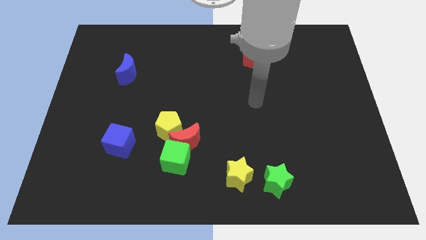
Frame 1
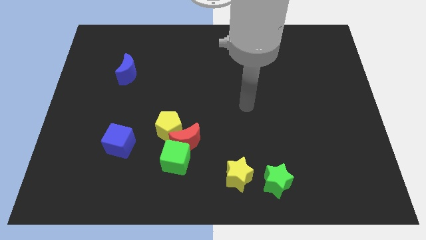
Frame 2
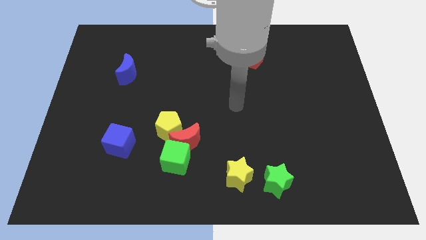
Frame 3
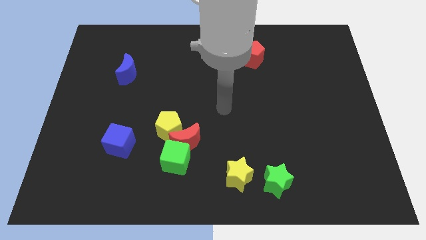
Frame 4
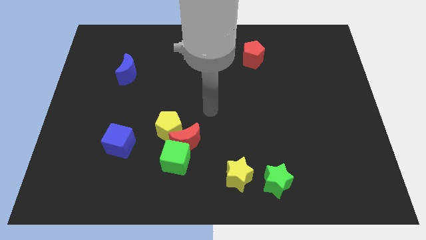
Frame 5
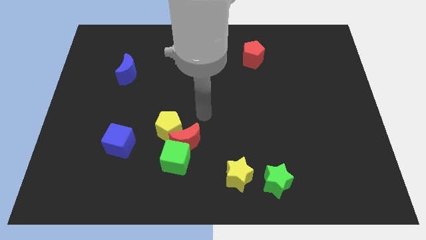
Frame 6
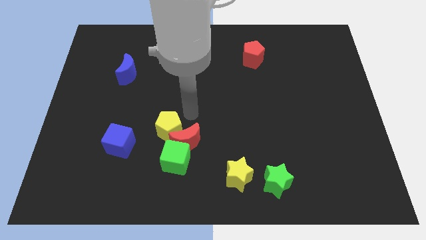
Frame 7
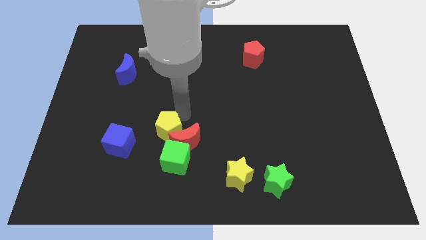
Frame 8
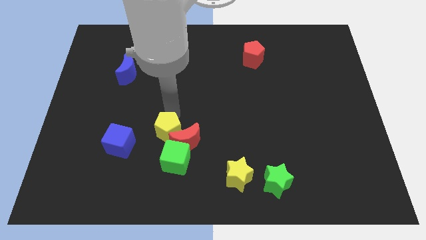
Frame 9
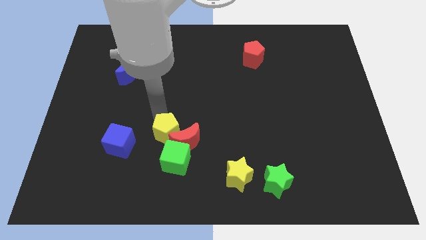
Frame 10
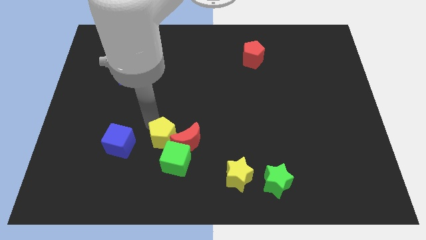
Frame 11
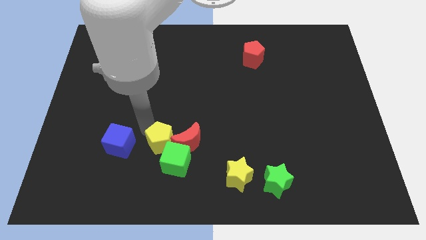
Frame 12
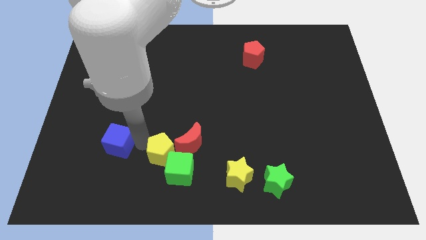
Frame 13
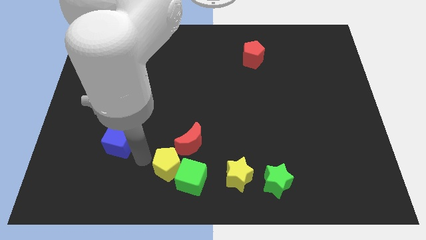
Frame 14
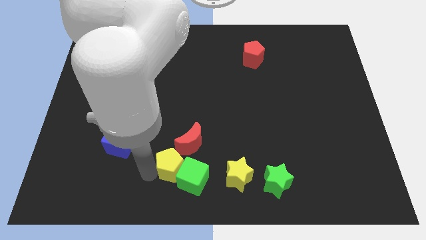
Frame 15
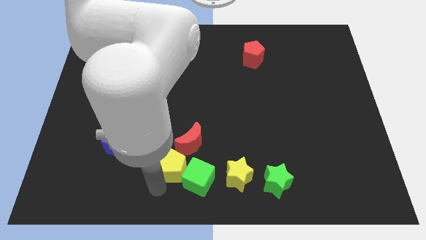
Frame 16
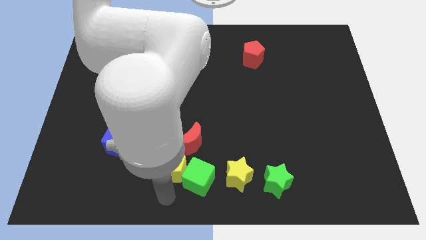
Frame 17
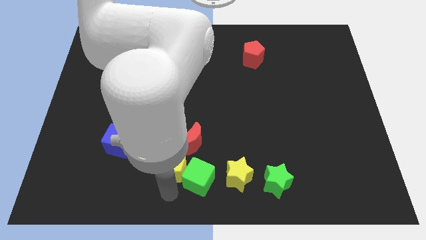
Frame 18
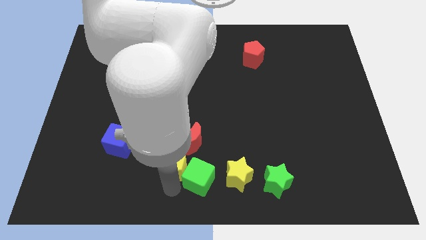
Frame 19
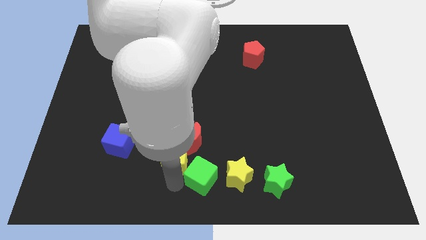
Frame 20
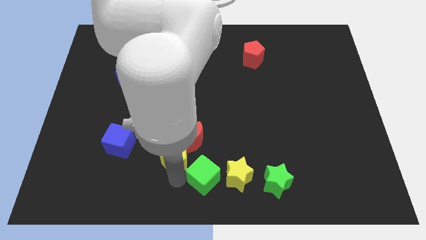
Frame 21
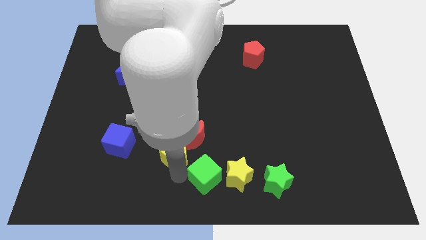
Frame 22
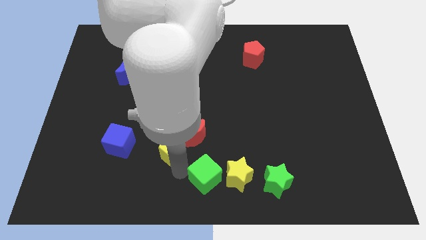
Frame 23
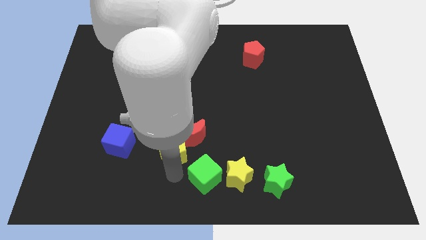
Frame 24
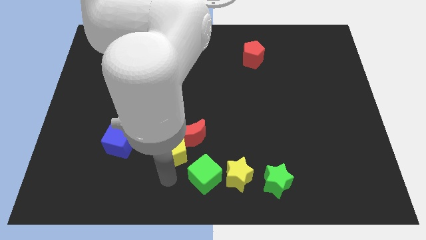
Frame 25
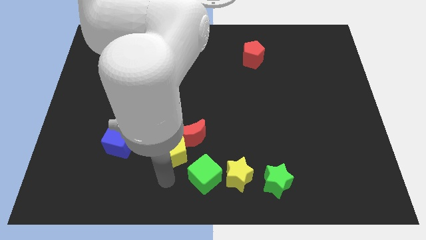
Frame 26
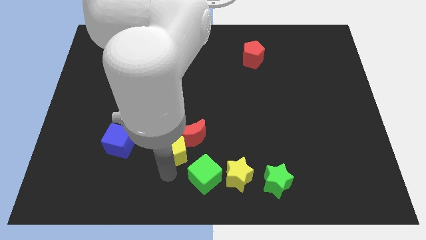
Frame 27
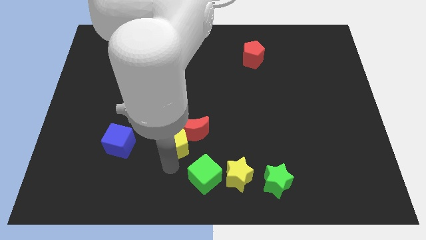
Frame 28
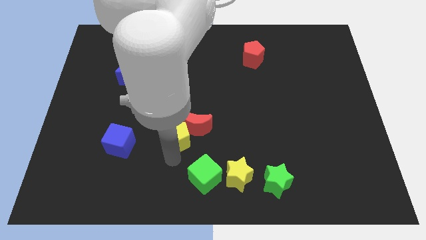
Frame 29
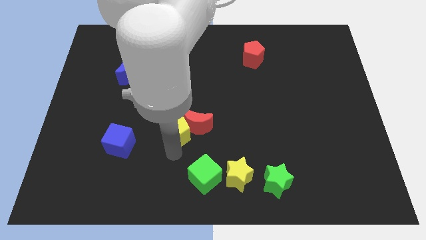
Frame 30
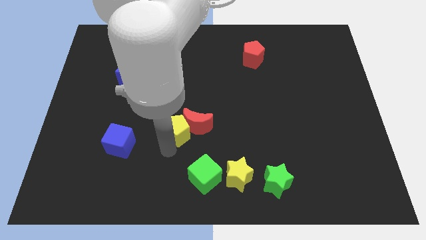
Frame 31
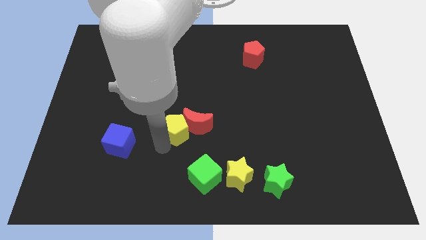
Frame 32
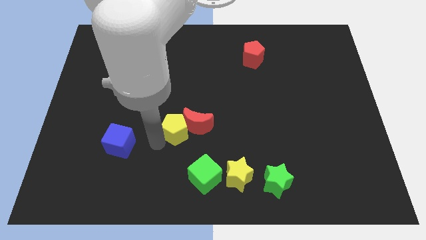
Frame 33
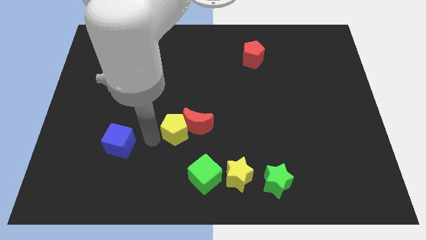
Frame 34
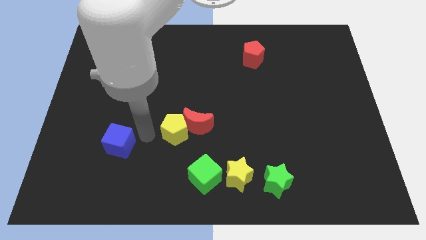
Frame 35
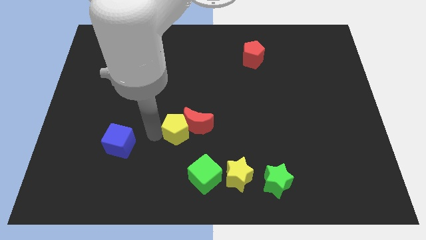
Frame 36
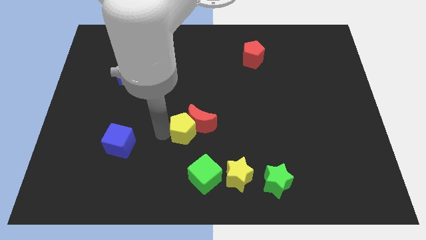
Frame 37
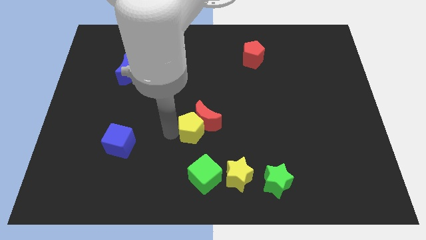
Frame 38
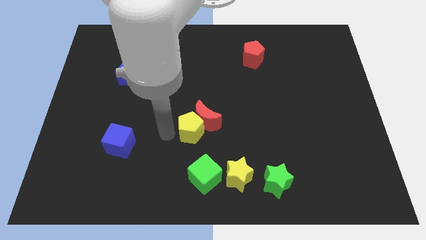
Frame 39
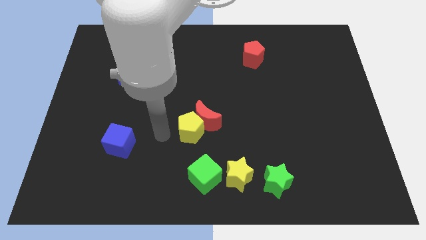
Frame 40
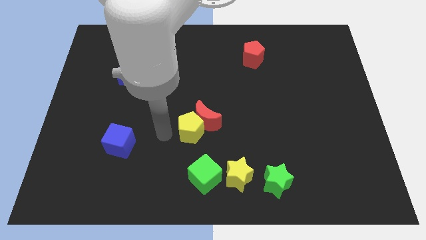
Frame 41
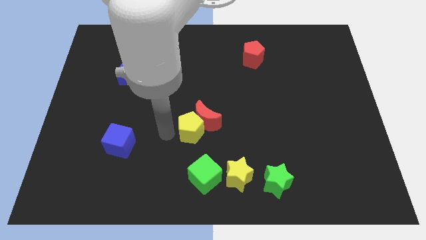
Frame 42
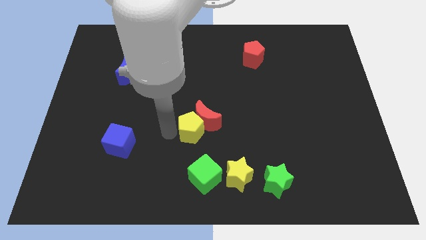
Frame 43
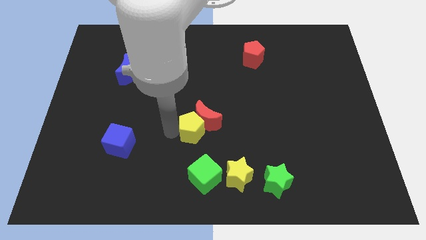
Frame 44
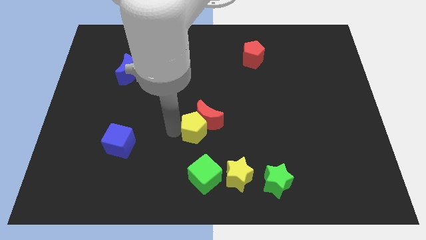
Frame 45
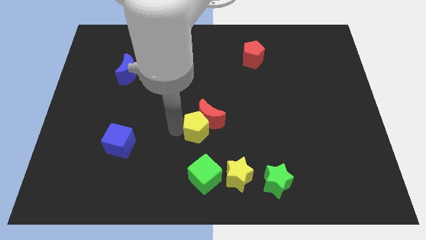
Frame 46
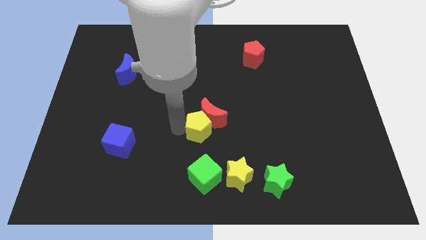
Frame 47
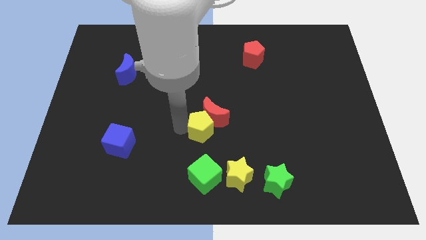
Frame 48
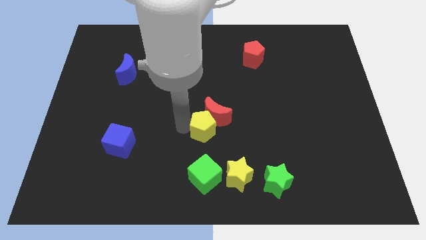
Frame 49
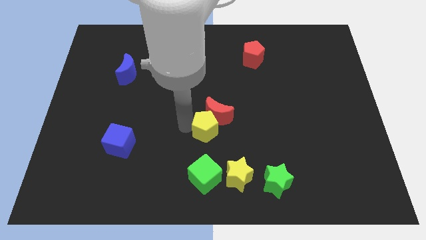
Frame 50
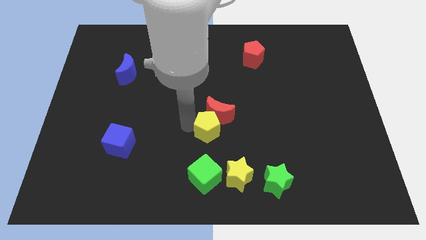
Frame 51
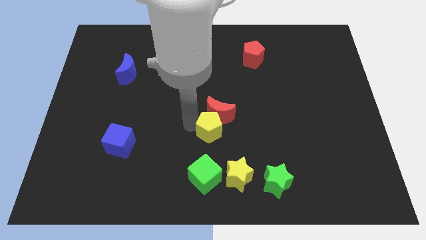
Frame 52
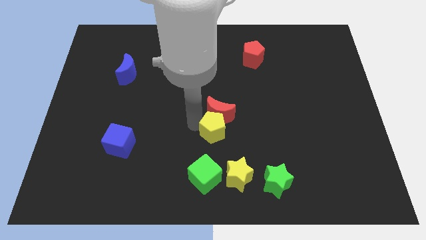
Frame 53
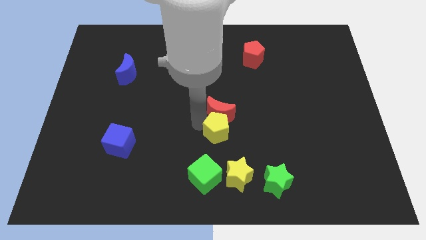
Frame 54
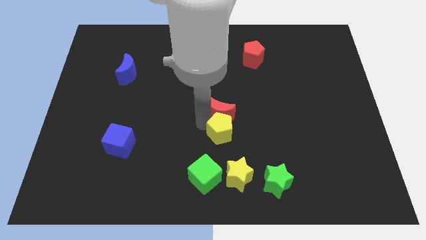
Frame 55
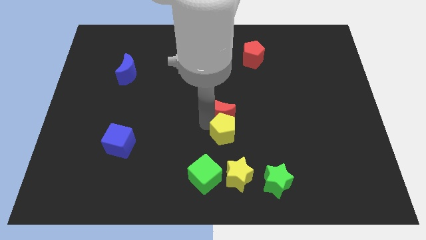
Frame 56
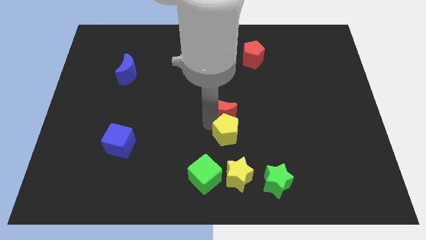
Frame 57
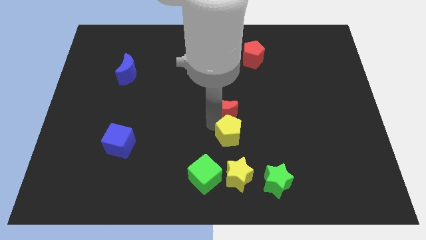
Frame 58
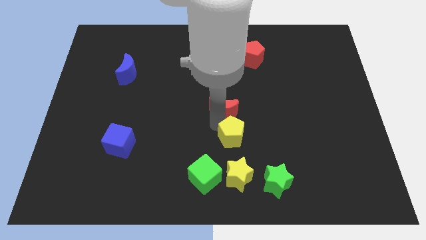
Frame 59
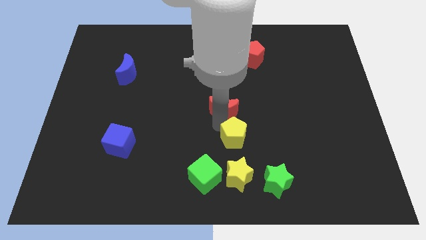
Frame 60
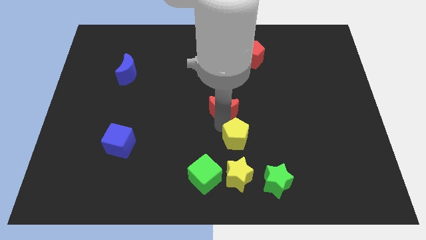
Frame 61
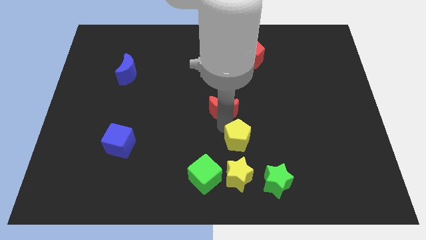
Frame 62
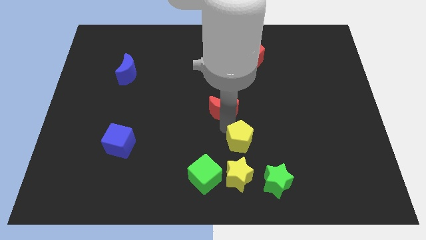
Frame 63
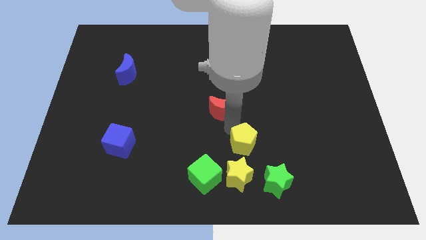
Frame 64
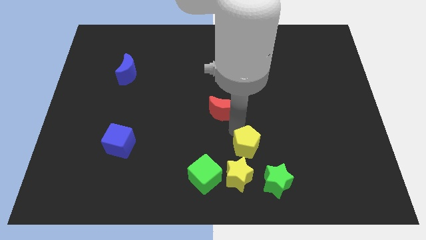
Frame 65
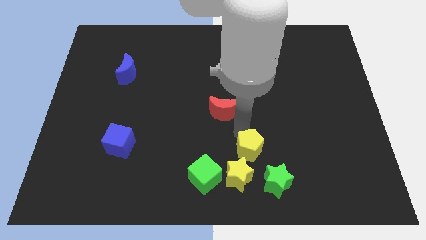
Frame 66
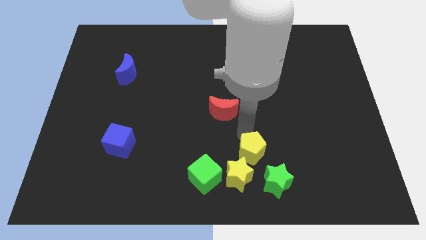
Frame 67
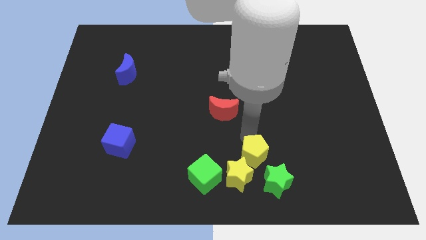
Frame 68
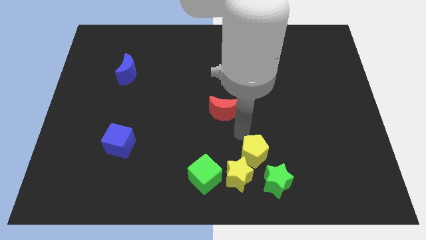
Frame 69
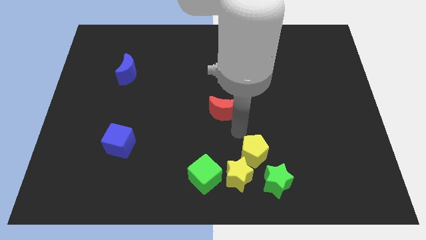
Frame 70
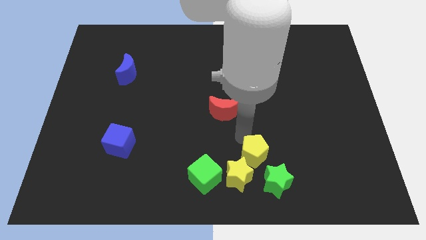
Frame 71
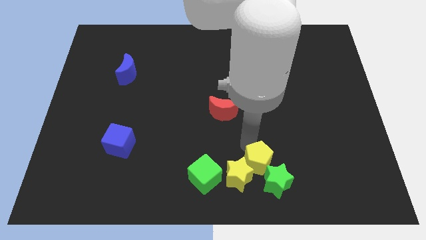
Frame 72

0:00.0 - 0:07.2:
put the yellow pentagon to the green star

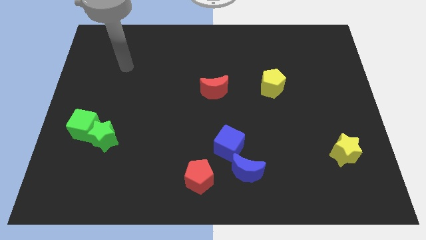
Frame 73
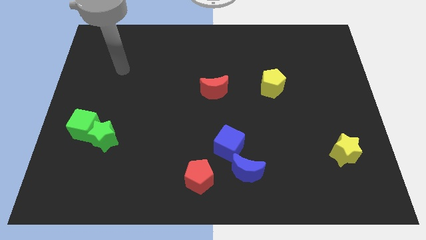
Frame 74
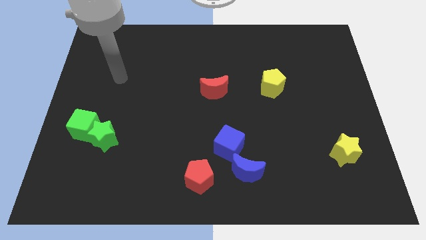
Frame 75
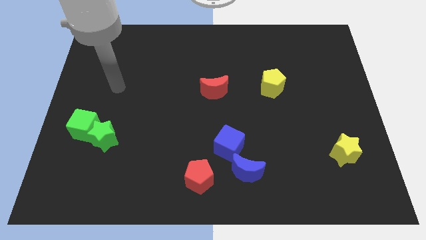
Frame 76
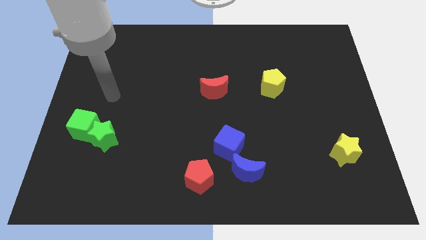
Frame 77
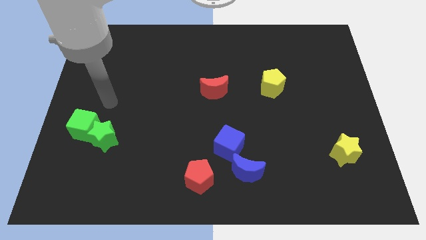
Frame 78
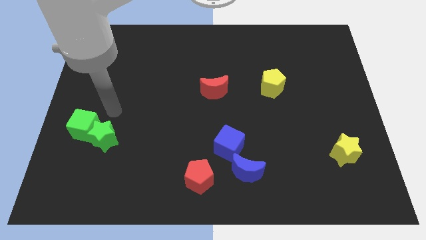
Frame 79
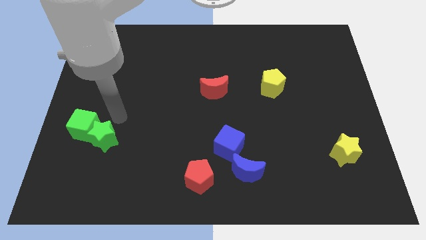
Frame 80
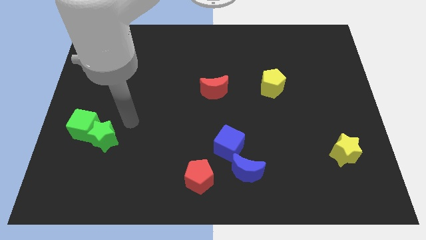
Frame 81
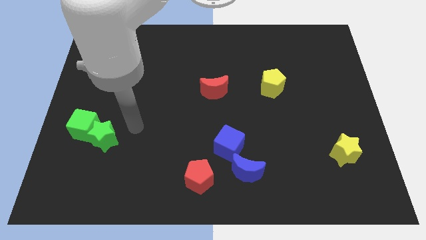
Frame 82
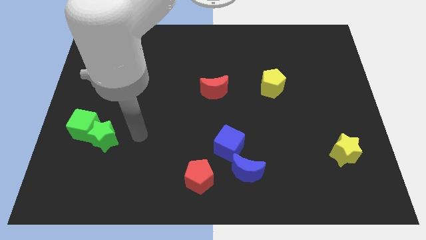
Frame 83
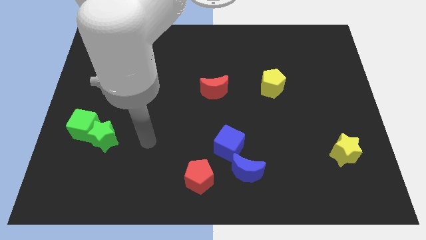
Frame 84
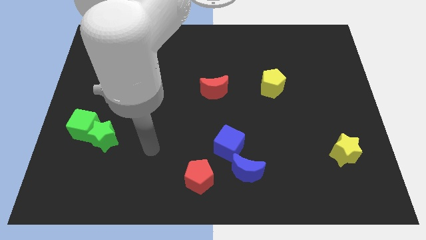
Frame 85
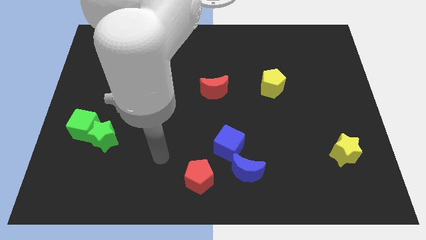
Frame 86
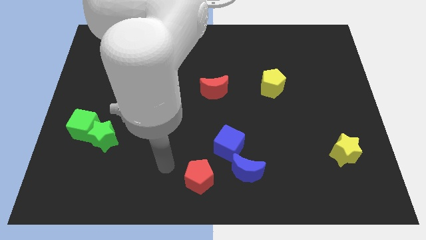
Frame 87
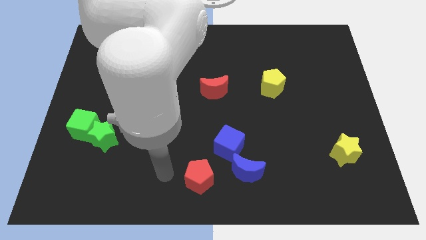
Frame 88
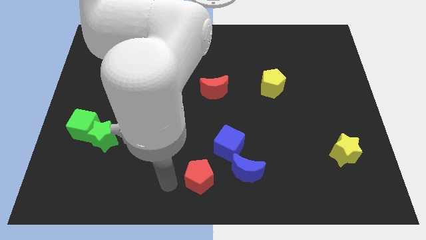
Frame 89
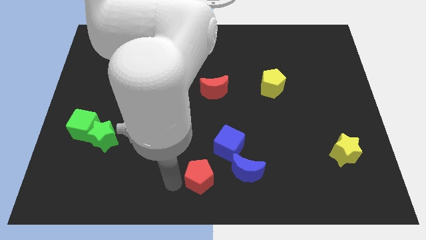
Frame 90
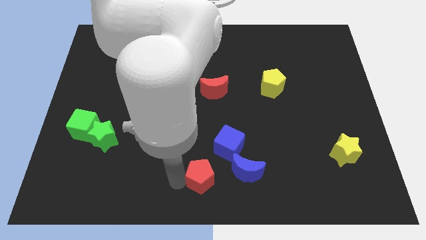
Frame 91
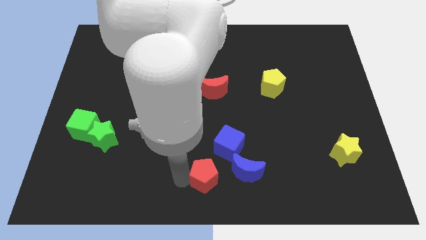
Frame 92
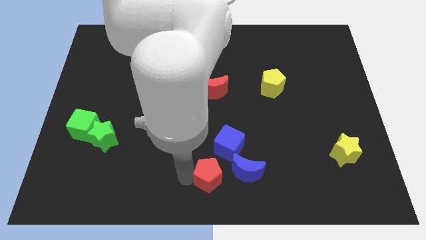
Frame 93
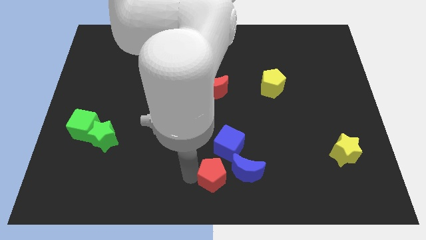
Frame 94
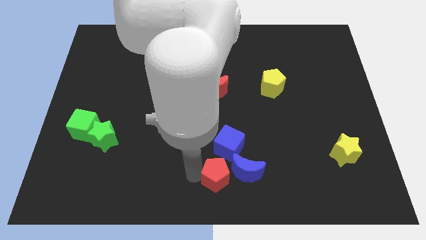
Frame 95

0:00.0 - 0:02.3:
put the red pentagon towards the blue moon
